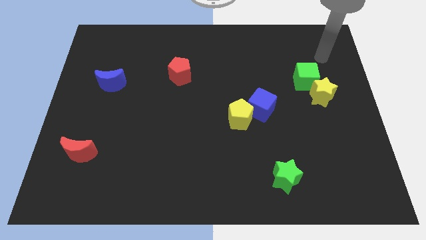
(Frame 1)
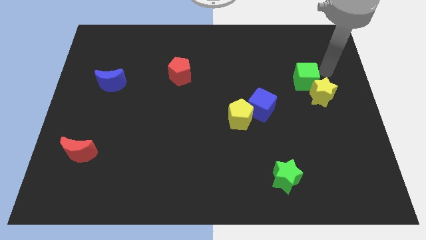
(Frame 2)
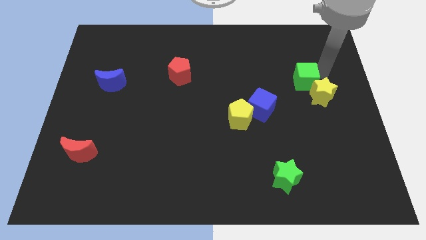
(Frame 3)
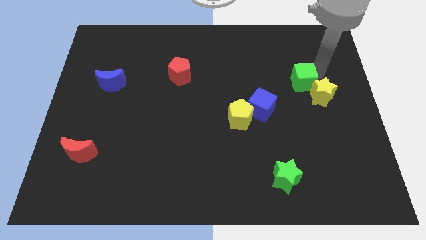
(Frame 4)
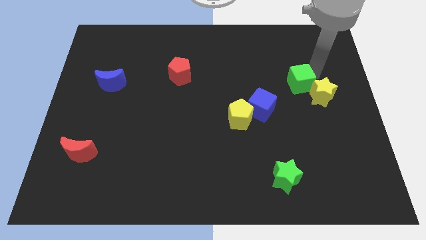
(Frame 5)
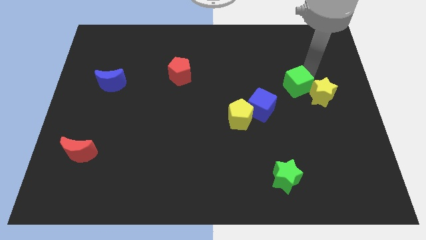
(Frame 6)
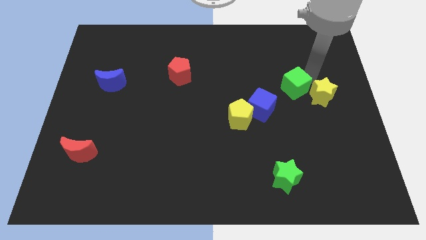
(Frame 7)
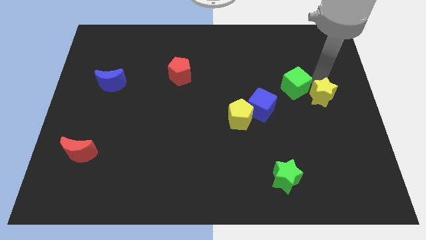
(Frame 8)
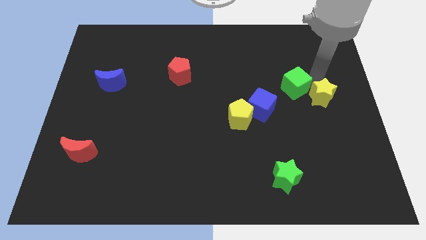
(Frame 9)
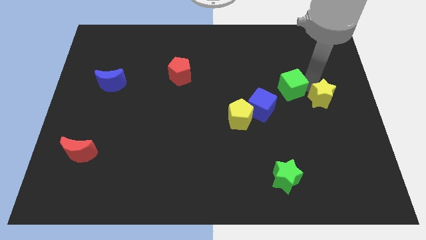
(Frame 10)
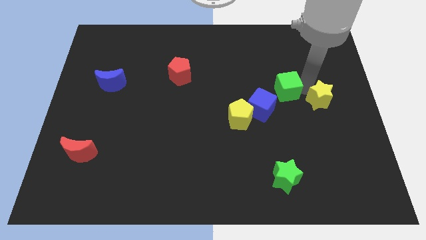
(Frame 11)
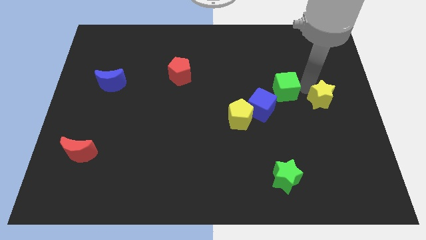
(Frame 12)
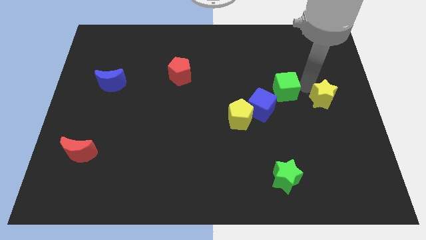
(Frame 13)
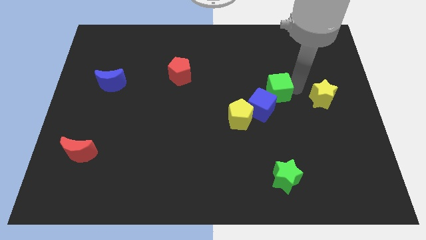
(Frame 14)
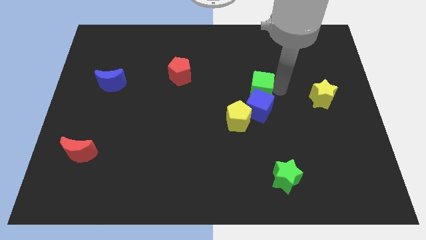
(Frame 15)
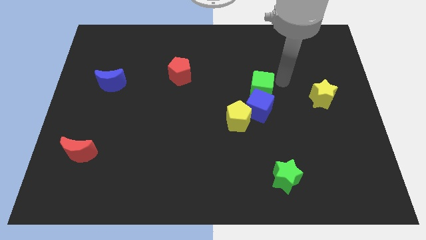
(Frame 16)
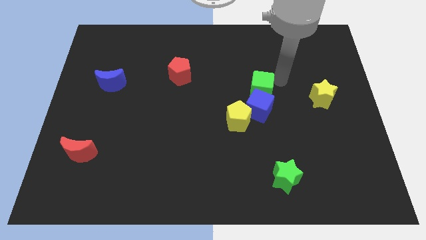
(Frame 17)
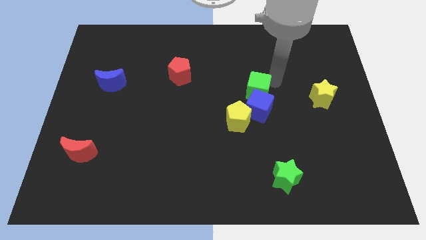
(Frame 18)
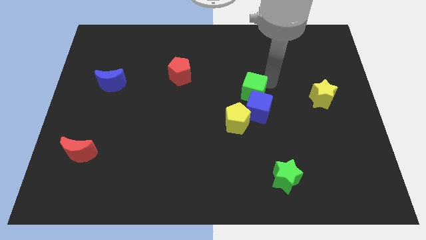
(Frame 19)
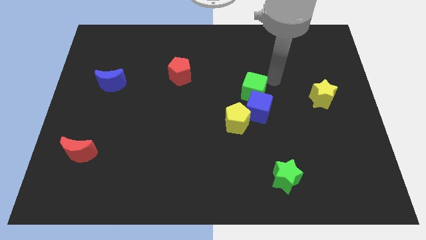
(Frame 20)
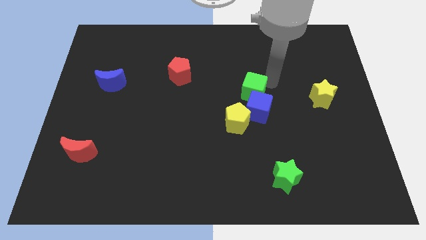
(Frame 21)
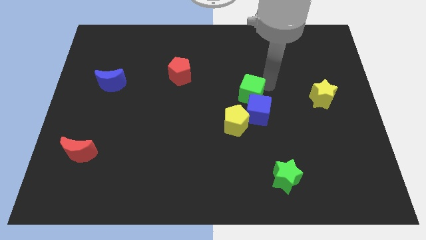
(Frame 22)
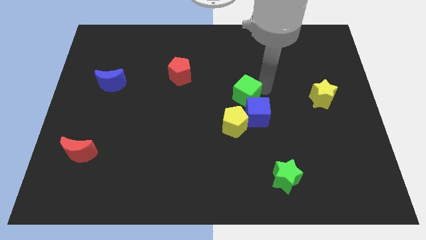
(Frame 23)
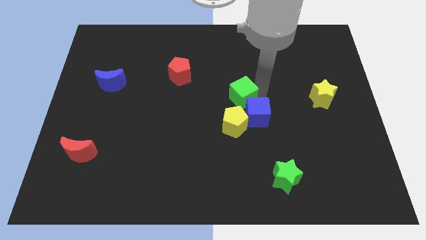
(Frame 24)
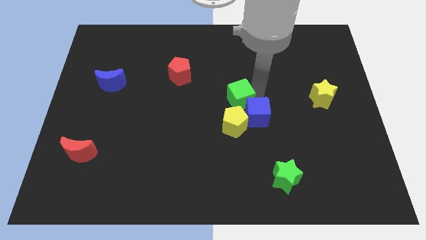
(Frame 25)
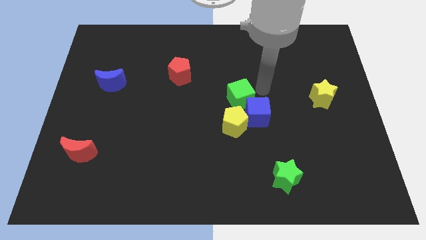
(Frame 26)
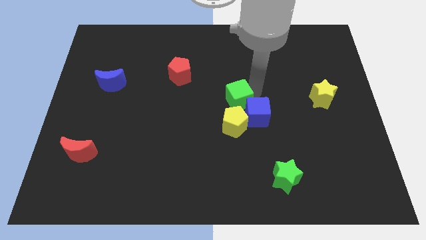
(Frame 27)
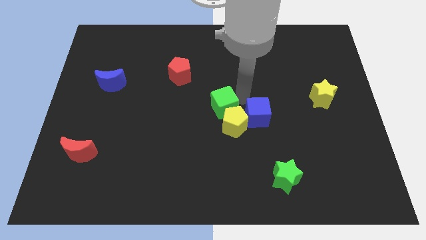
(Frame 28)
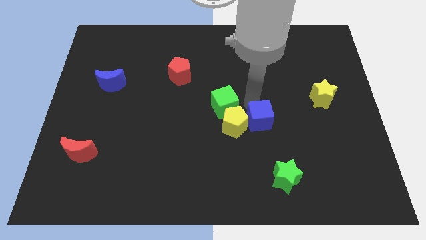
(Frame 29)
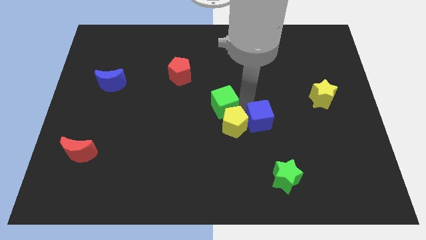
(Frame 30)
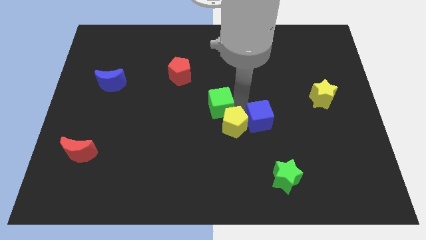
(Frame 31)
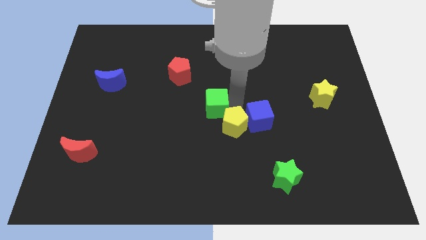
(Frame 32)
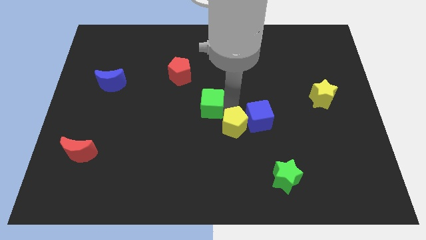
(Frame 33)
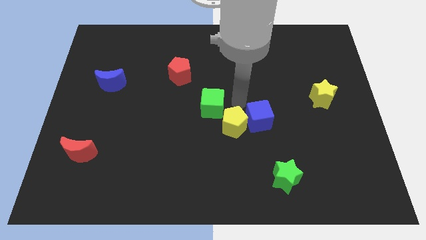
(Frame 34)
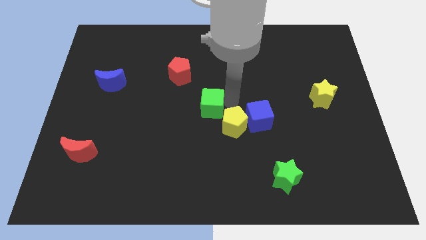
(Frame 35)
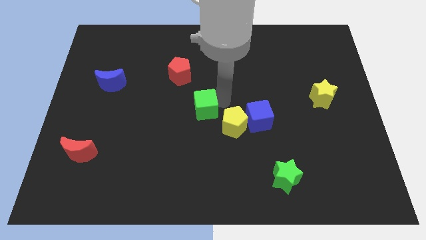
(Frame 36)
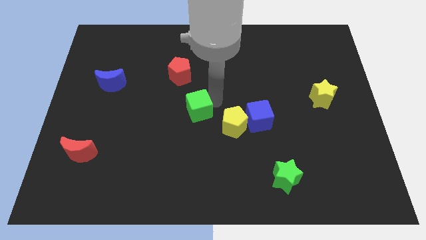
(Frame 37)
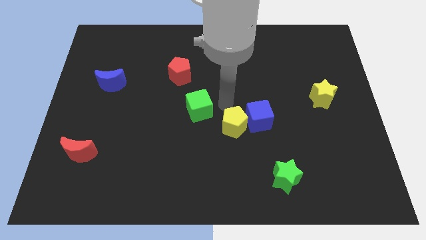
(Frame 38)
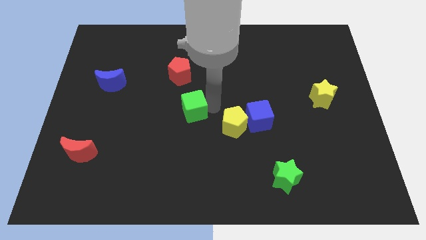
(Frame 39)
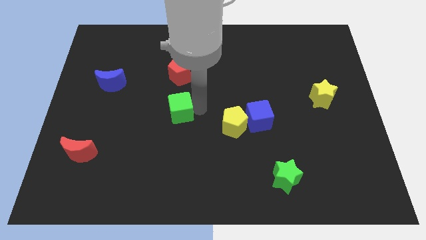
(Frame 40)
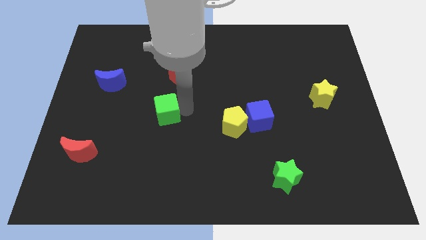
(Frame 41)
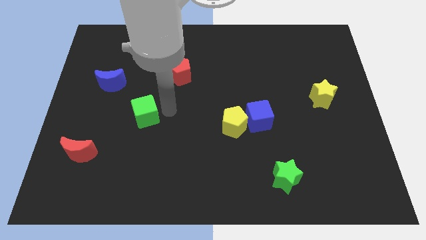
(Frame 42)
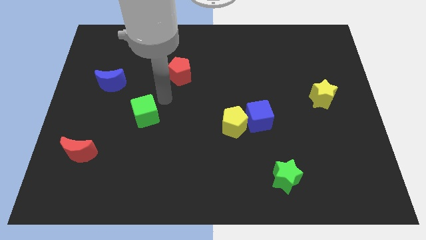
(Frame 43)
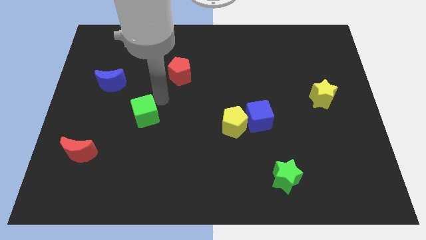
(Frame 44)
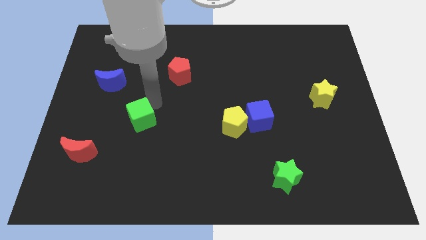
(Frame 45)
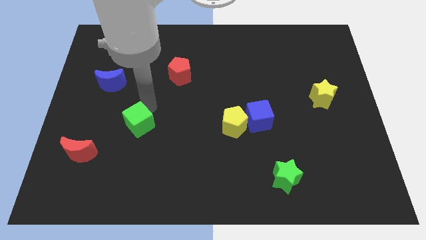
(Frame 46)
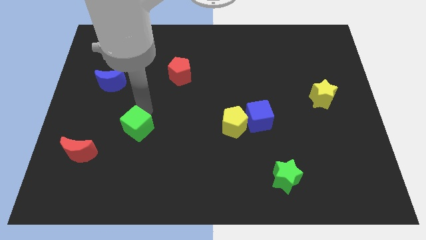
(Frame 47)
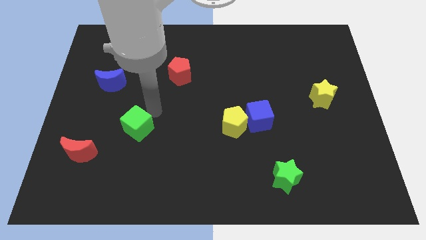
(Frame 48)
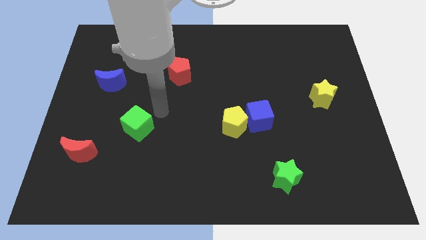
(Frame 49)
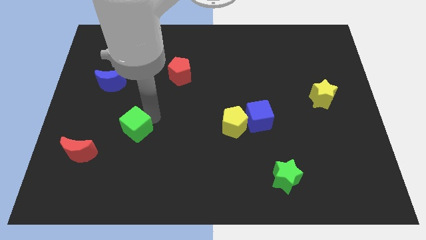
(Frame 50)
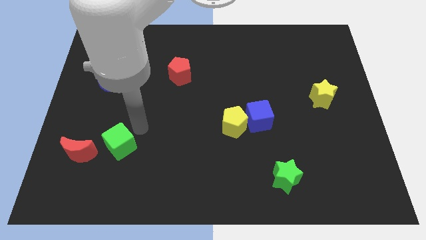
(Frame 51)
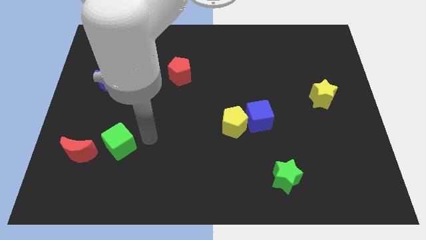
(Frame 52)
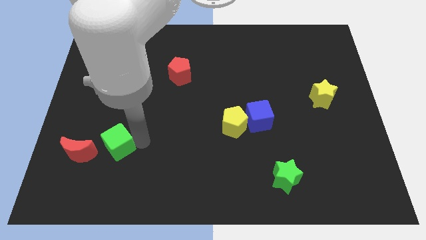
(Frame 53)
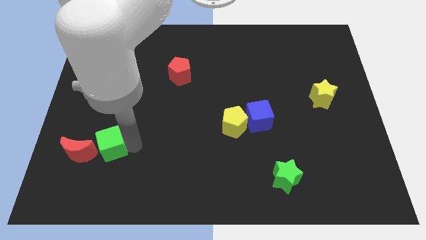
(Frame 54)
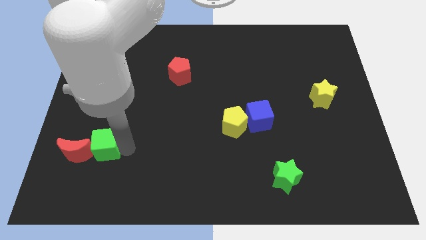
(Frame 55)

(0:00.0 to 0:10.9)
push the green cube to the red moon

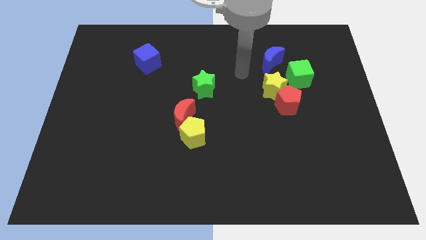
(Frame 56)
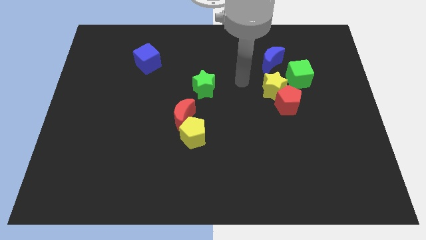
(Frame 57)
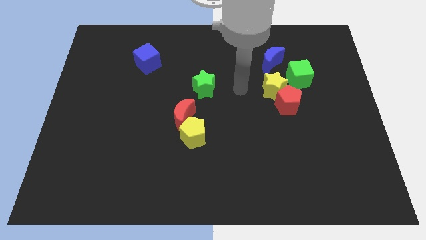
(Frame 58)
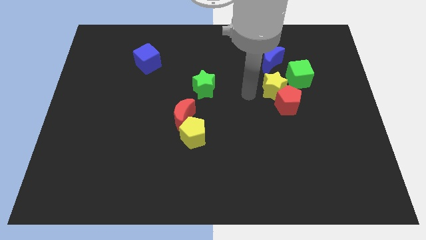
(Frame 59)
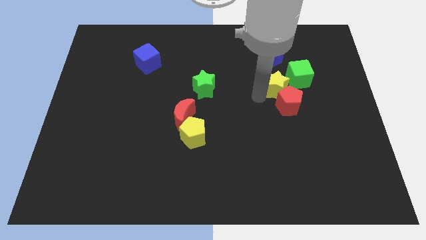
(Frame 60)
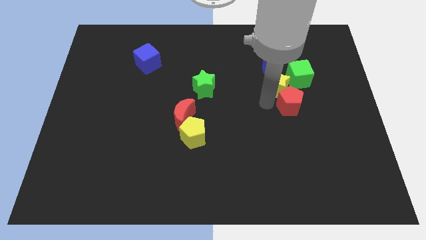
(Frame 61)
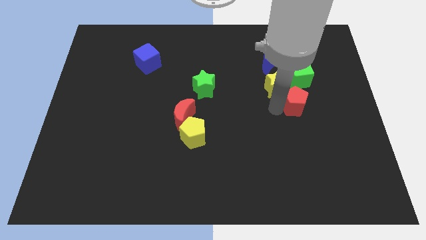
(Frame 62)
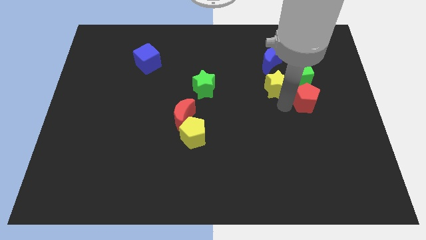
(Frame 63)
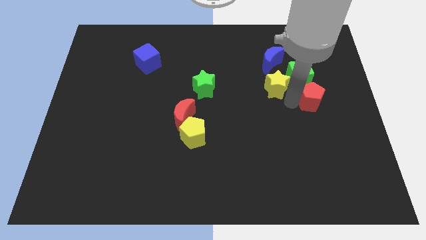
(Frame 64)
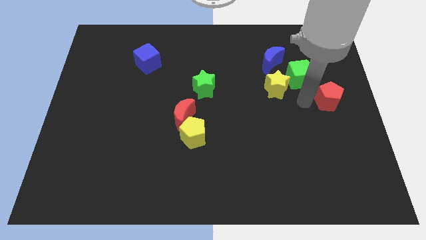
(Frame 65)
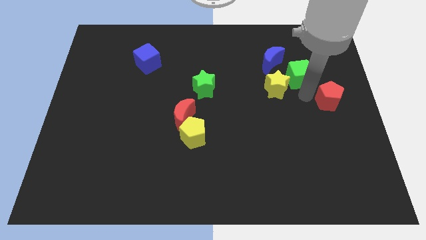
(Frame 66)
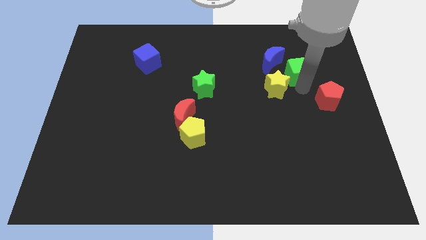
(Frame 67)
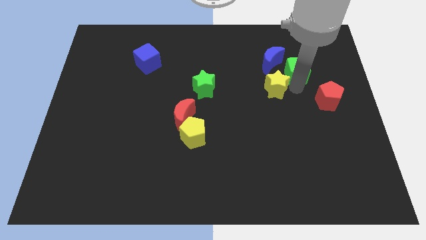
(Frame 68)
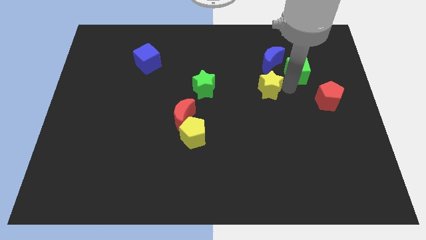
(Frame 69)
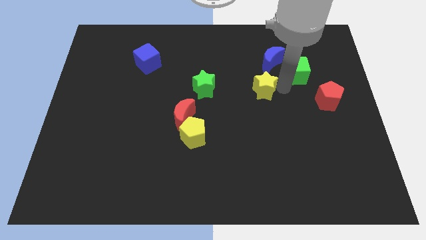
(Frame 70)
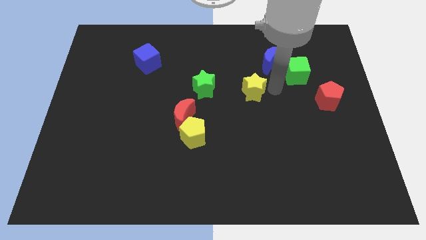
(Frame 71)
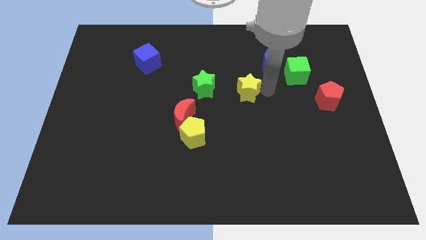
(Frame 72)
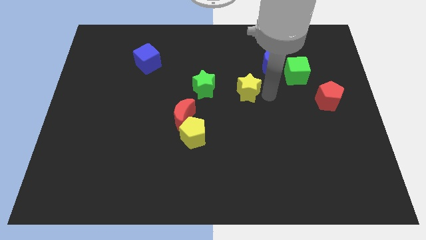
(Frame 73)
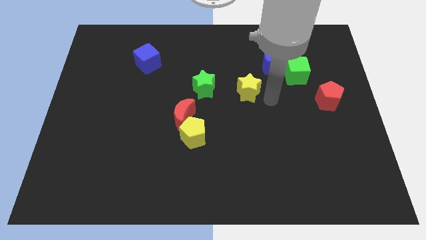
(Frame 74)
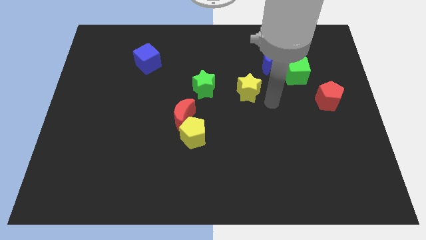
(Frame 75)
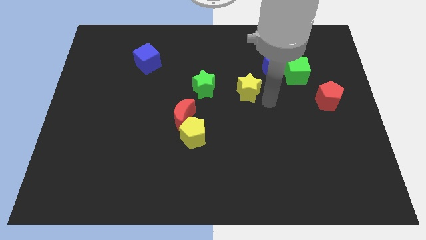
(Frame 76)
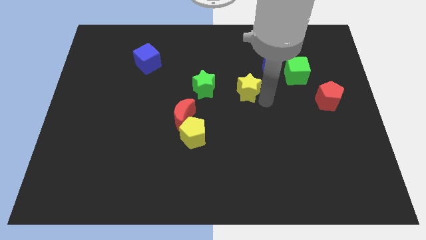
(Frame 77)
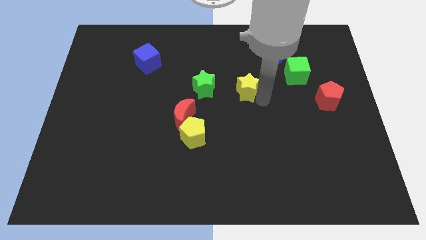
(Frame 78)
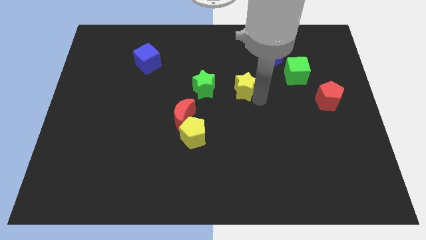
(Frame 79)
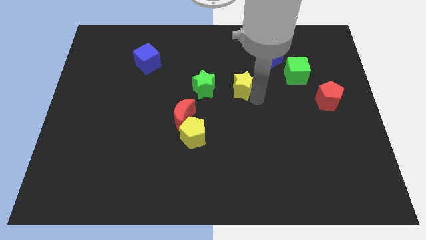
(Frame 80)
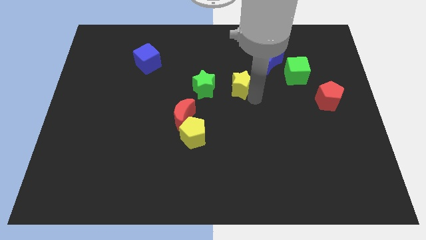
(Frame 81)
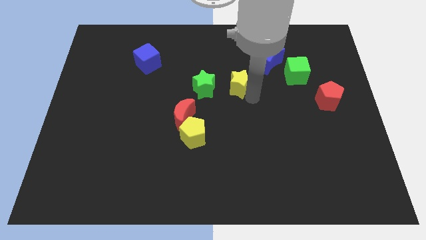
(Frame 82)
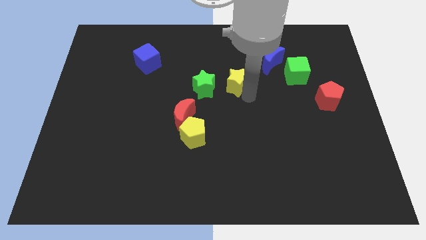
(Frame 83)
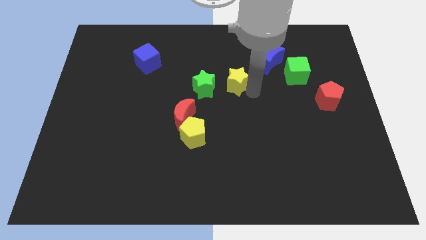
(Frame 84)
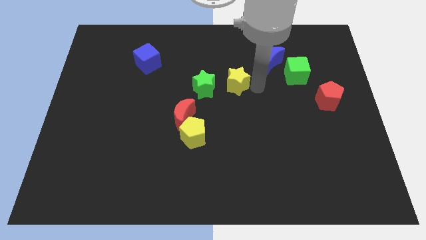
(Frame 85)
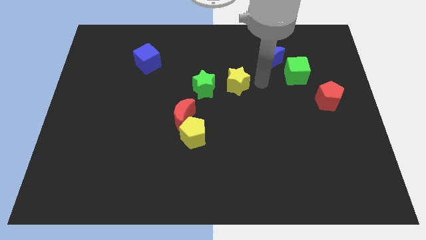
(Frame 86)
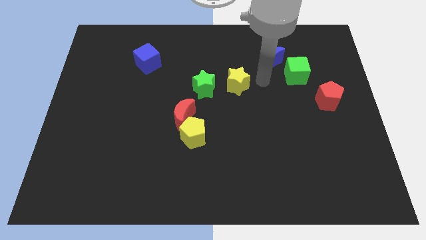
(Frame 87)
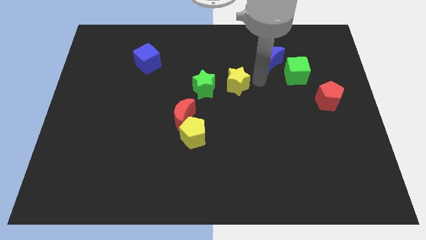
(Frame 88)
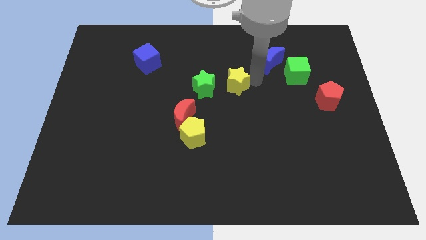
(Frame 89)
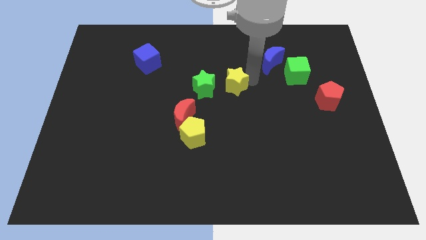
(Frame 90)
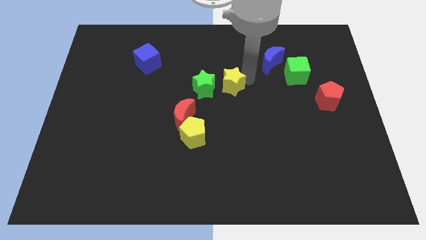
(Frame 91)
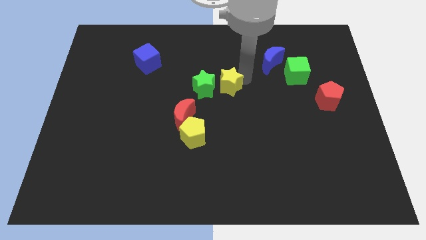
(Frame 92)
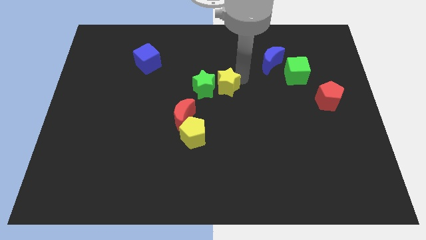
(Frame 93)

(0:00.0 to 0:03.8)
slide the yellow star towards the green star
